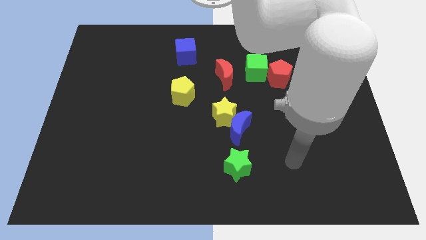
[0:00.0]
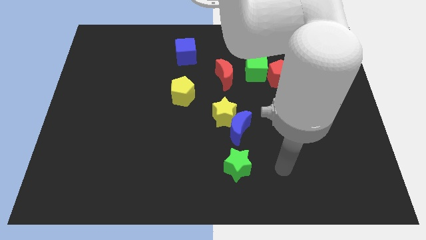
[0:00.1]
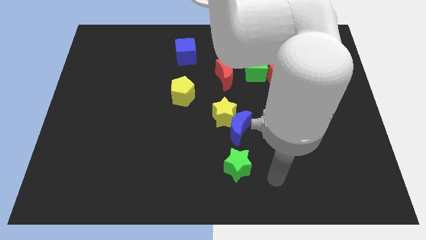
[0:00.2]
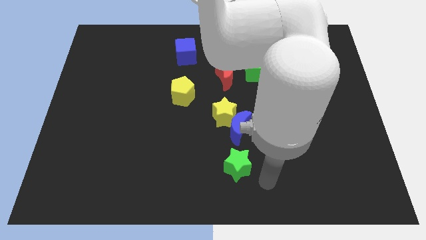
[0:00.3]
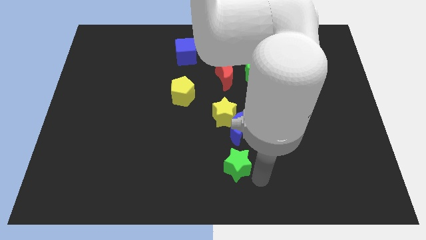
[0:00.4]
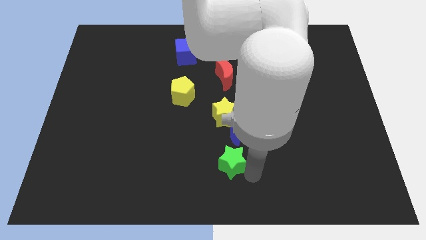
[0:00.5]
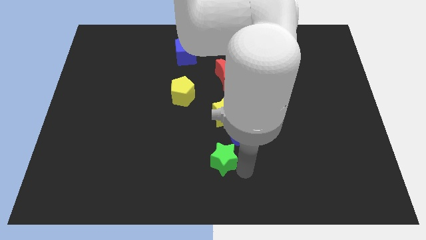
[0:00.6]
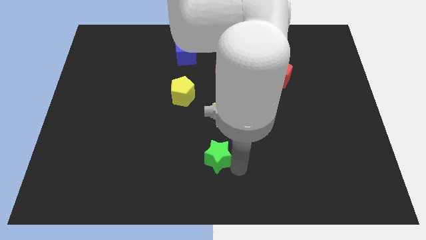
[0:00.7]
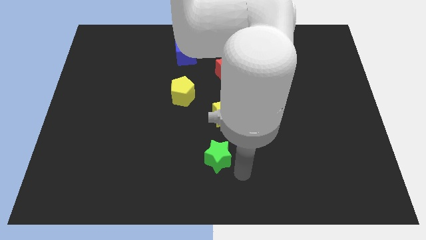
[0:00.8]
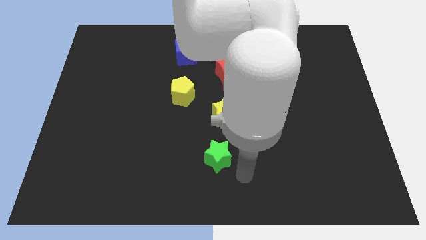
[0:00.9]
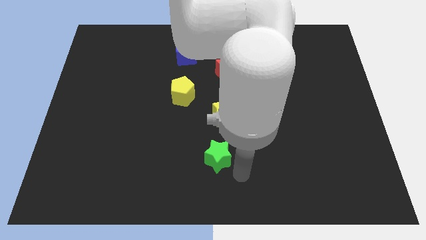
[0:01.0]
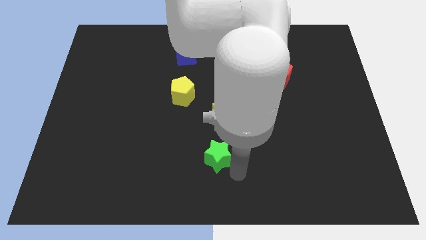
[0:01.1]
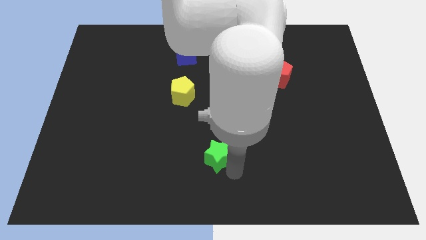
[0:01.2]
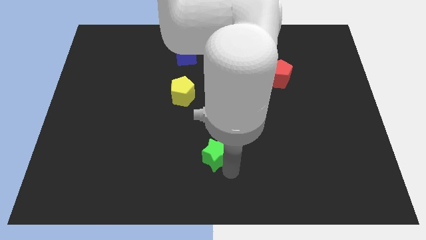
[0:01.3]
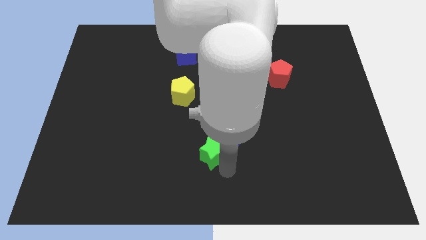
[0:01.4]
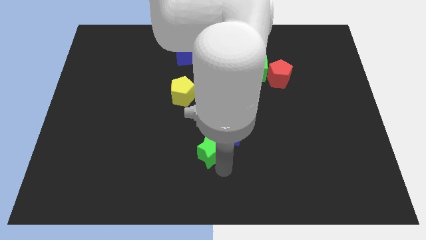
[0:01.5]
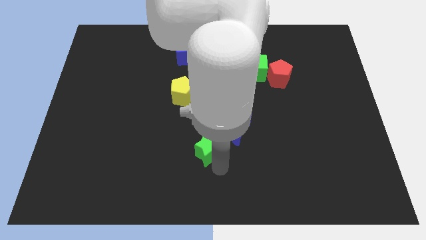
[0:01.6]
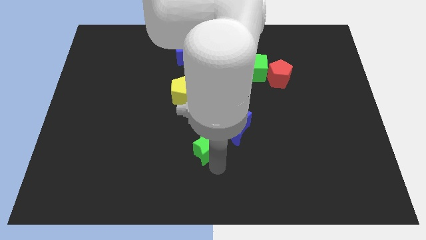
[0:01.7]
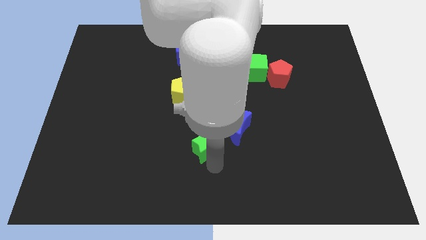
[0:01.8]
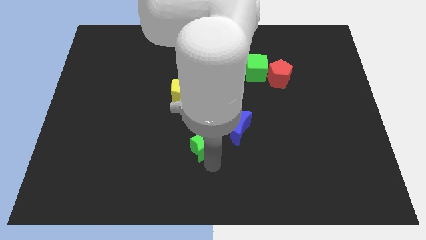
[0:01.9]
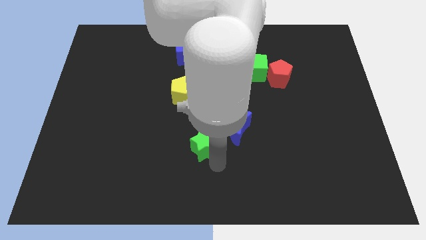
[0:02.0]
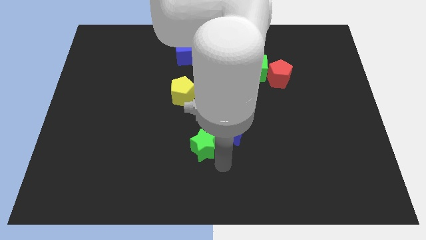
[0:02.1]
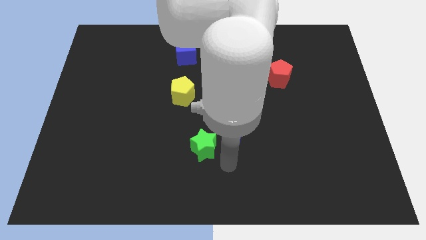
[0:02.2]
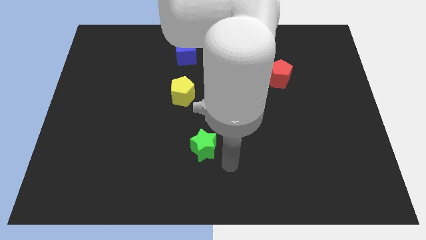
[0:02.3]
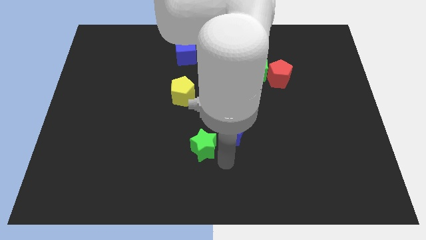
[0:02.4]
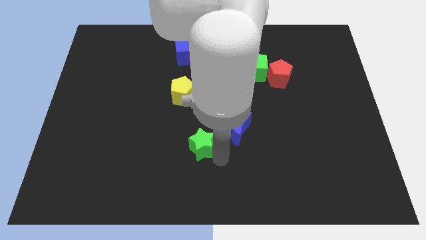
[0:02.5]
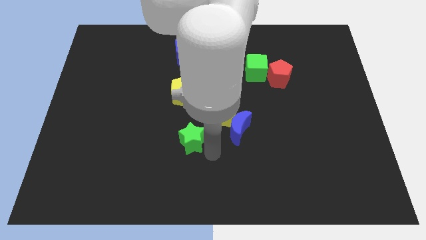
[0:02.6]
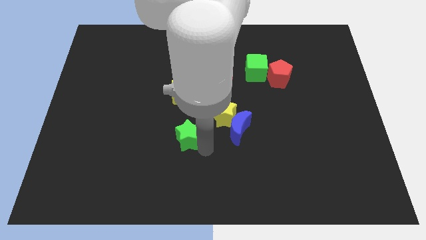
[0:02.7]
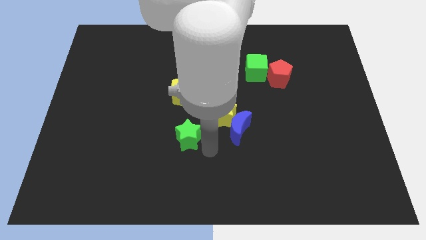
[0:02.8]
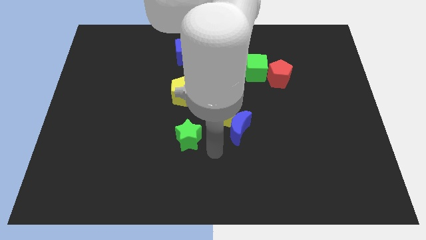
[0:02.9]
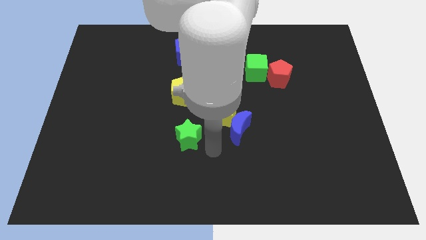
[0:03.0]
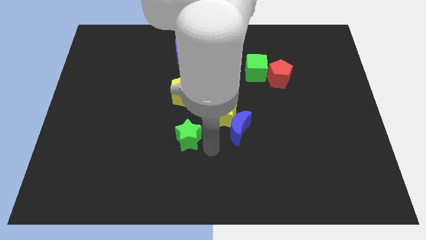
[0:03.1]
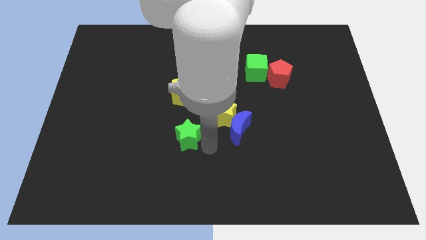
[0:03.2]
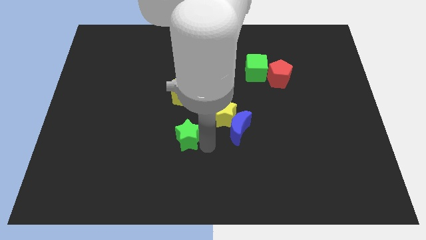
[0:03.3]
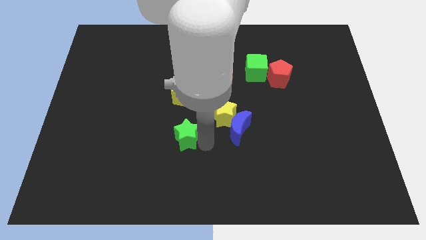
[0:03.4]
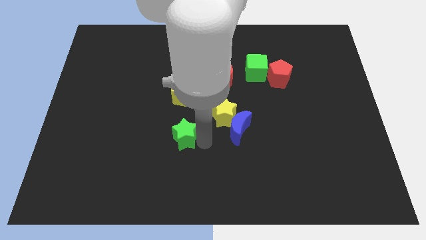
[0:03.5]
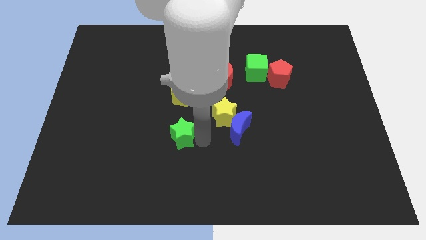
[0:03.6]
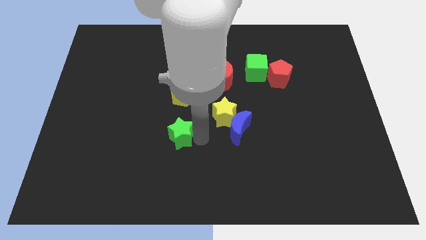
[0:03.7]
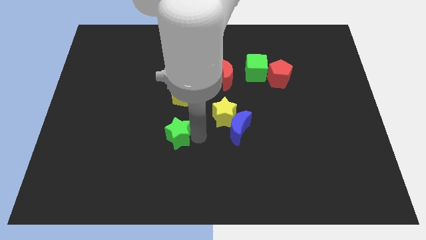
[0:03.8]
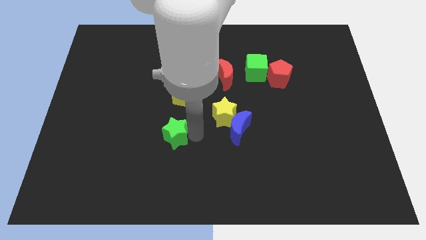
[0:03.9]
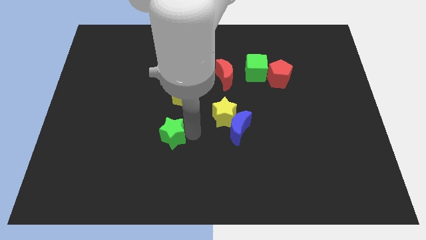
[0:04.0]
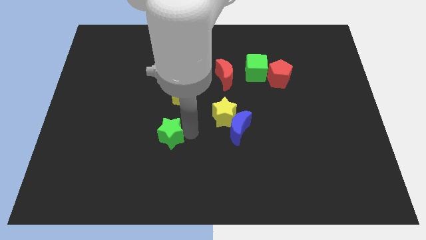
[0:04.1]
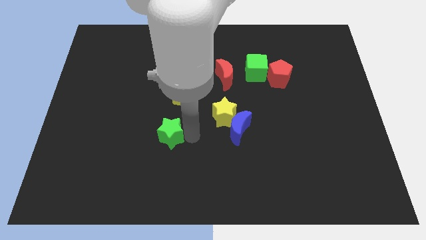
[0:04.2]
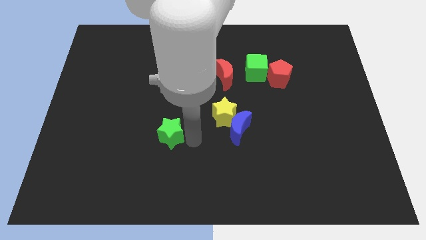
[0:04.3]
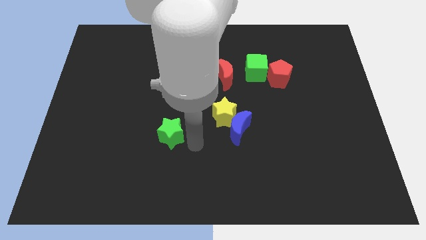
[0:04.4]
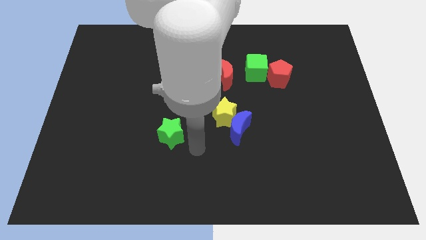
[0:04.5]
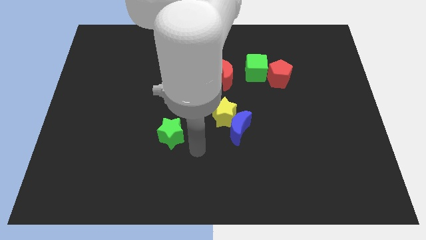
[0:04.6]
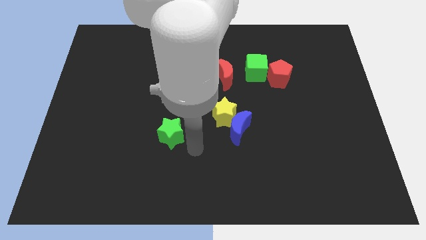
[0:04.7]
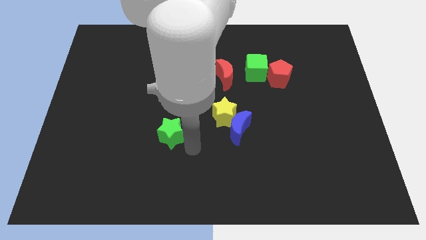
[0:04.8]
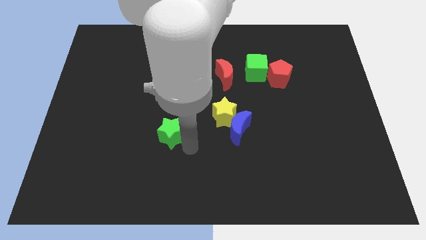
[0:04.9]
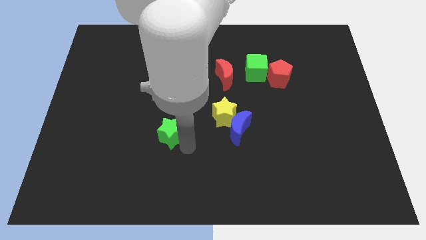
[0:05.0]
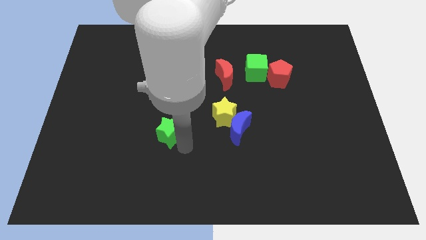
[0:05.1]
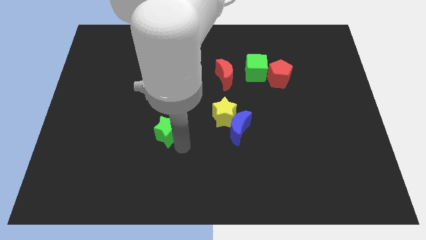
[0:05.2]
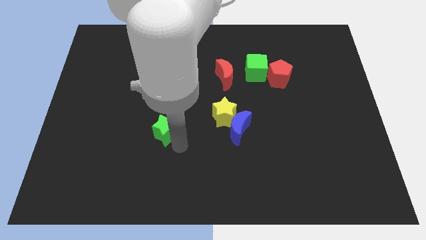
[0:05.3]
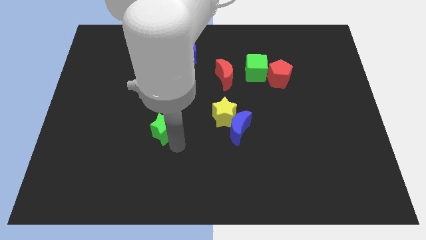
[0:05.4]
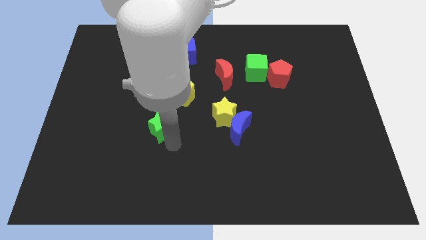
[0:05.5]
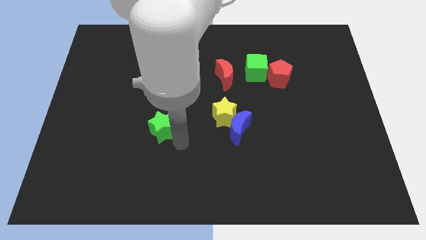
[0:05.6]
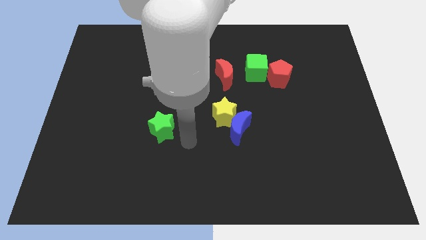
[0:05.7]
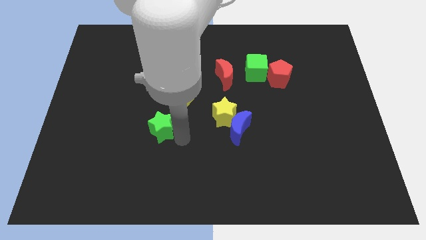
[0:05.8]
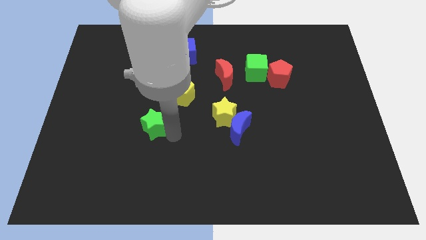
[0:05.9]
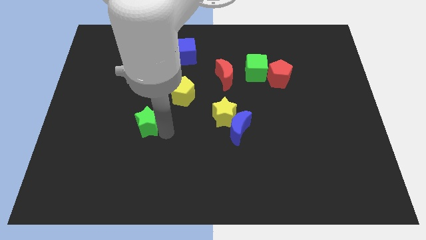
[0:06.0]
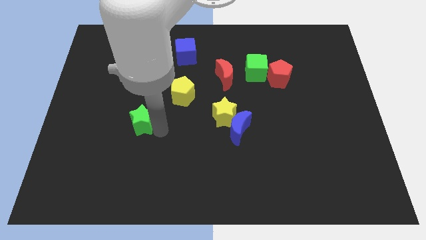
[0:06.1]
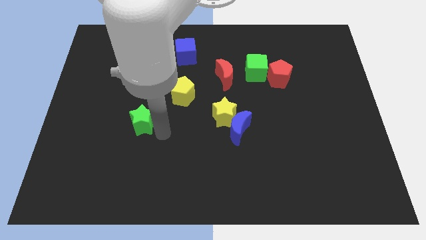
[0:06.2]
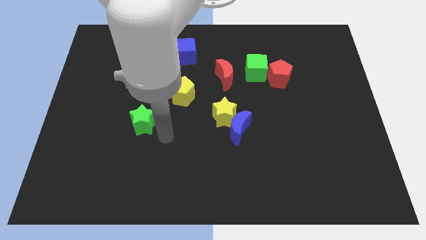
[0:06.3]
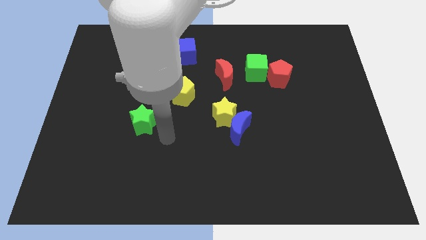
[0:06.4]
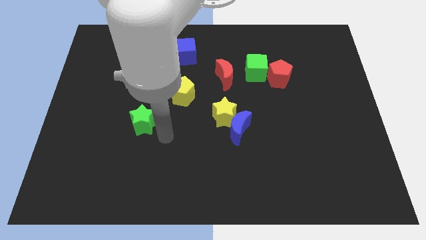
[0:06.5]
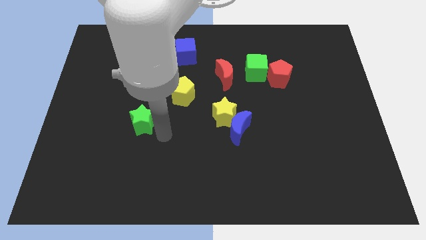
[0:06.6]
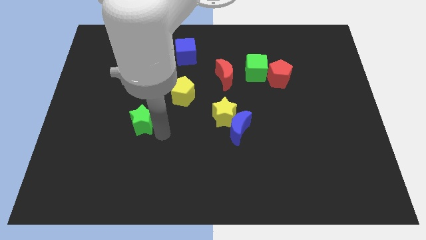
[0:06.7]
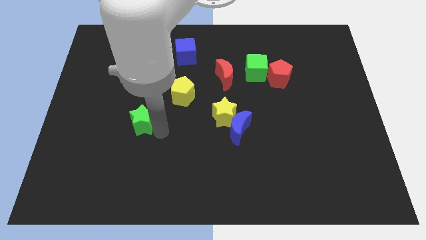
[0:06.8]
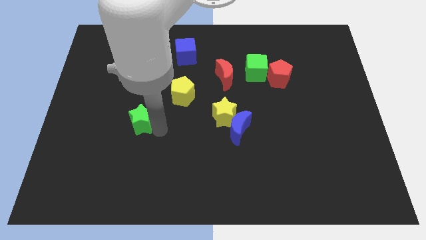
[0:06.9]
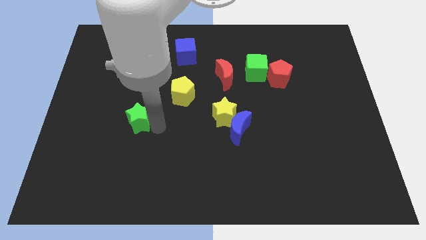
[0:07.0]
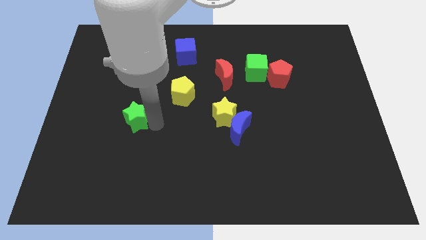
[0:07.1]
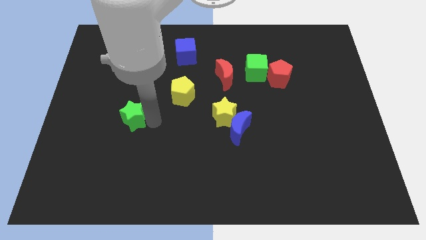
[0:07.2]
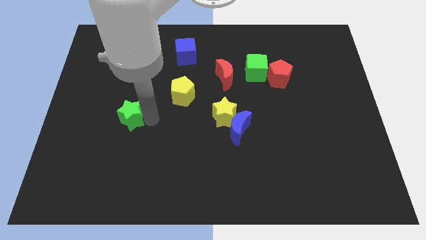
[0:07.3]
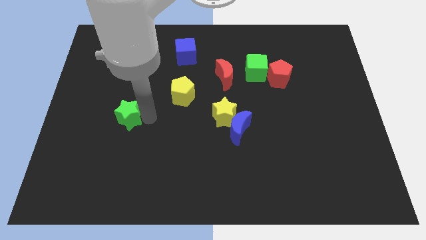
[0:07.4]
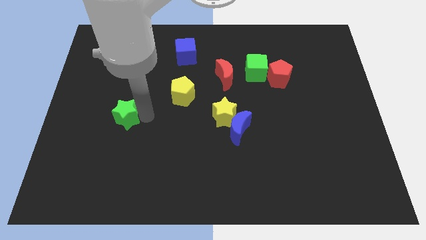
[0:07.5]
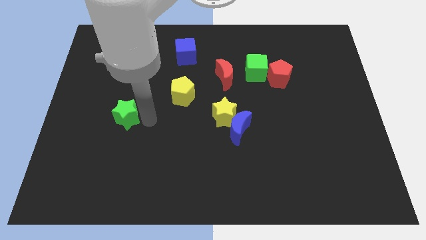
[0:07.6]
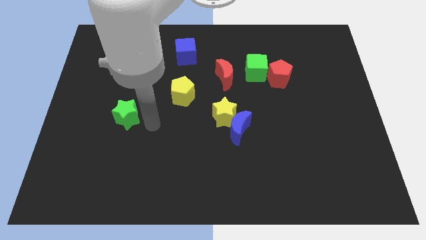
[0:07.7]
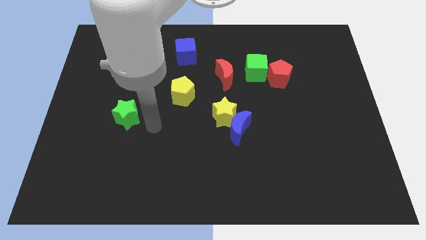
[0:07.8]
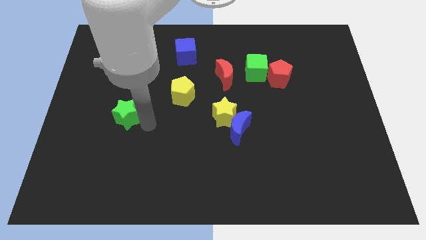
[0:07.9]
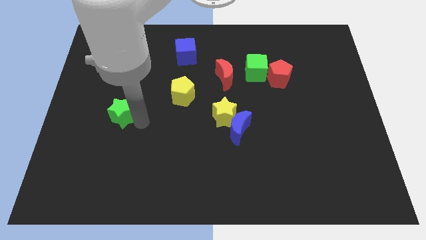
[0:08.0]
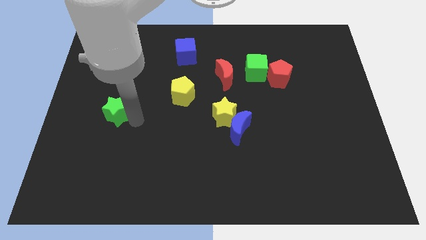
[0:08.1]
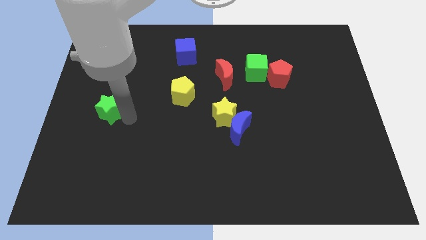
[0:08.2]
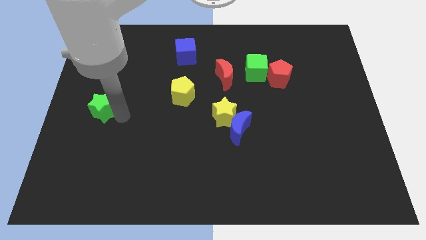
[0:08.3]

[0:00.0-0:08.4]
push the green star to the left side of the board
